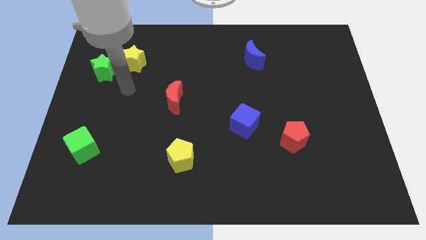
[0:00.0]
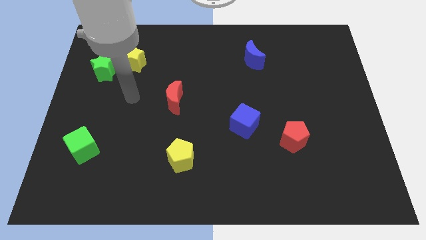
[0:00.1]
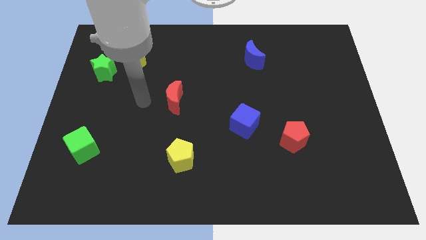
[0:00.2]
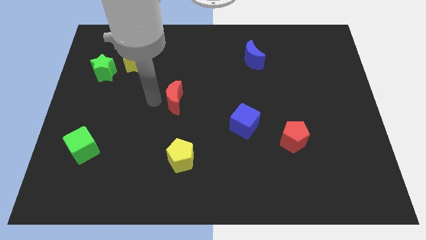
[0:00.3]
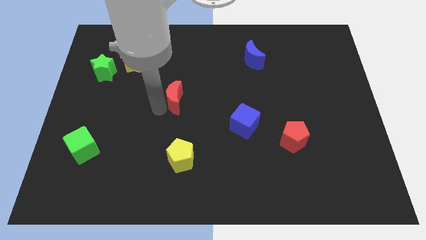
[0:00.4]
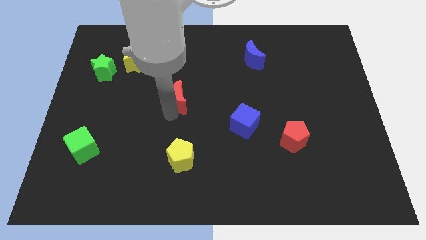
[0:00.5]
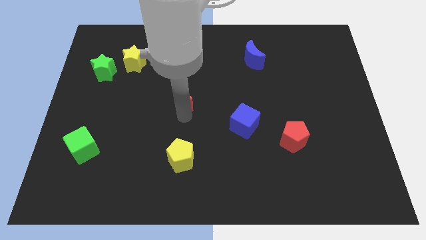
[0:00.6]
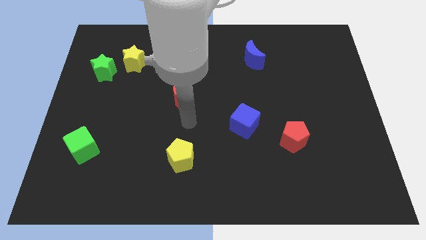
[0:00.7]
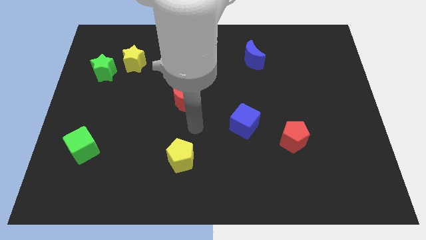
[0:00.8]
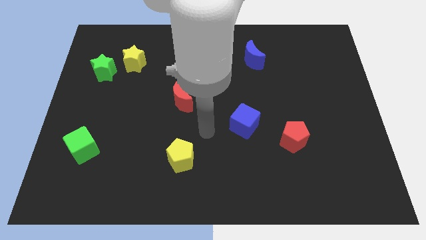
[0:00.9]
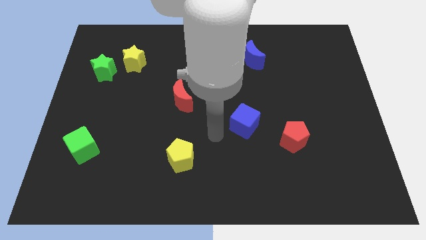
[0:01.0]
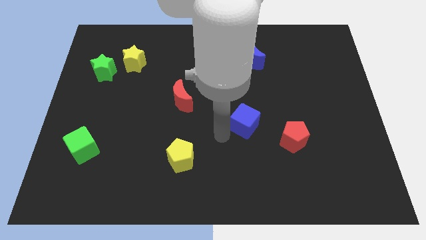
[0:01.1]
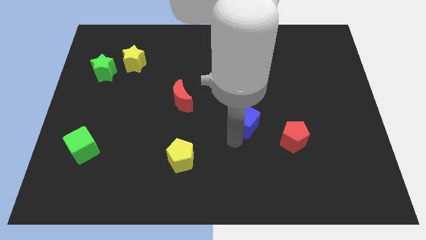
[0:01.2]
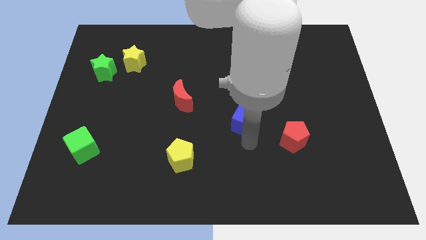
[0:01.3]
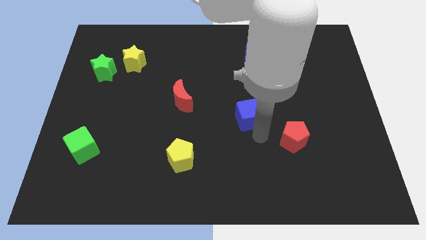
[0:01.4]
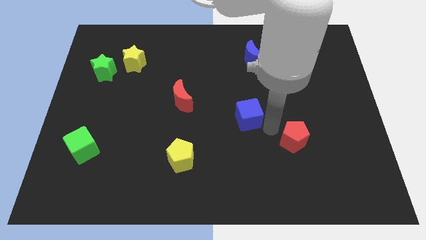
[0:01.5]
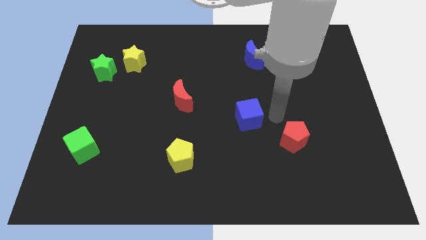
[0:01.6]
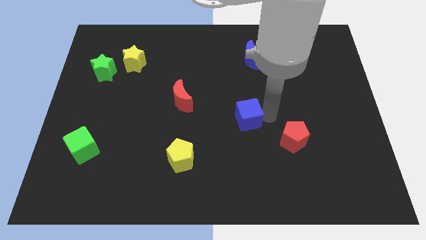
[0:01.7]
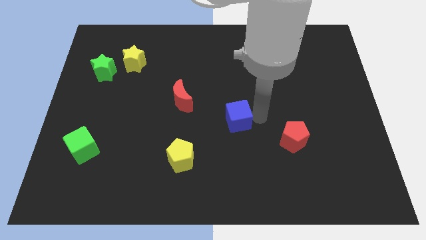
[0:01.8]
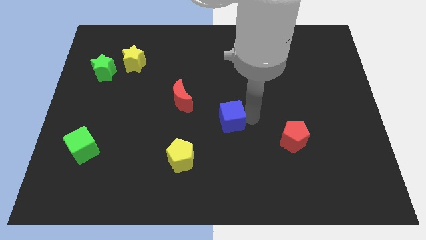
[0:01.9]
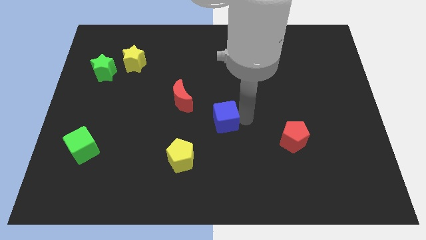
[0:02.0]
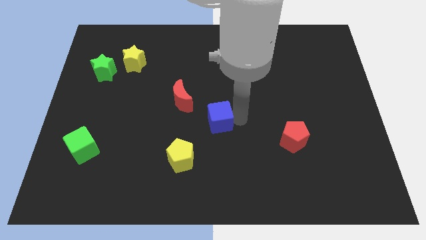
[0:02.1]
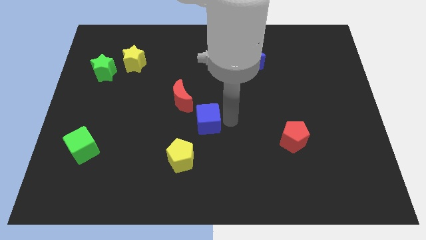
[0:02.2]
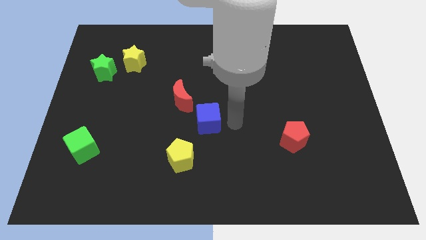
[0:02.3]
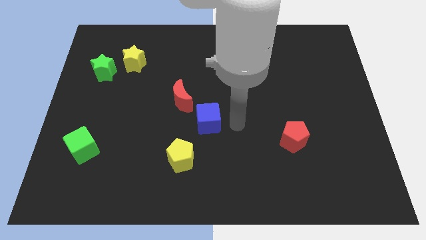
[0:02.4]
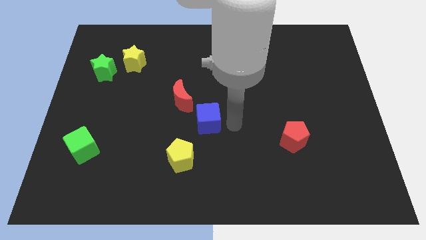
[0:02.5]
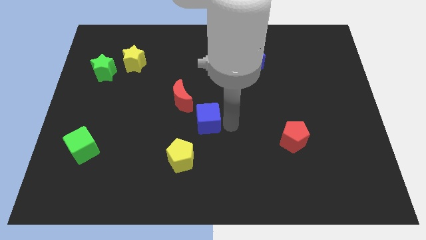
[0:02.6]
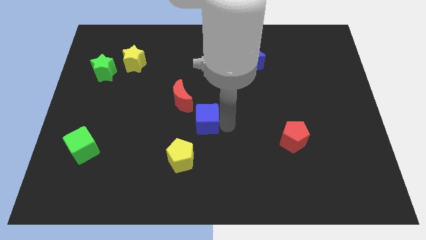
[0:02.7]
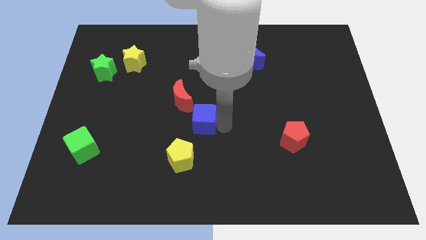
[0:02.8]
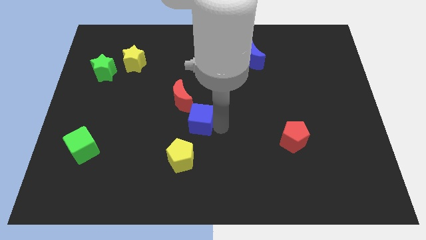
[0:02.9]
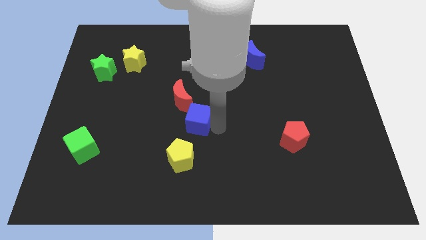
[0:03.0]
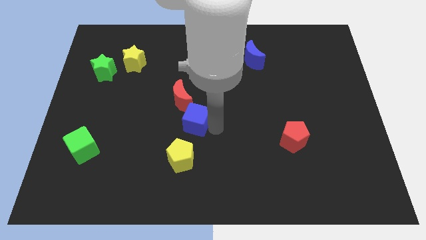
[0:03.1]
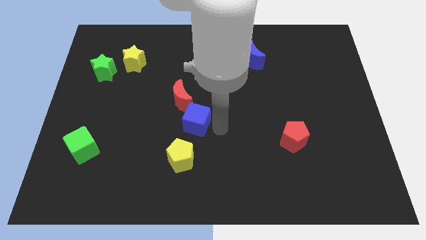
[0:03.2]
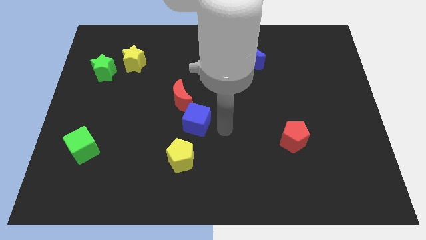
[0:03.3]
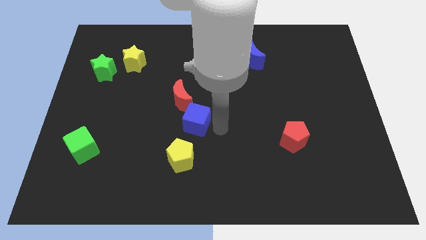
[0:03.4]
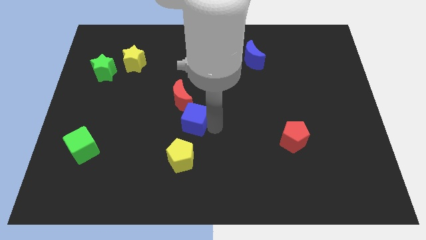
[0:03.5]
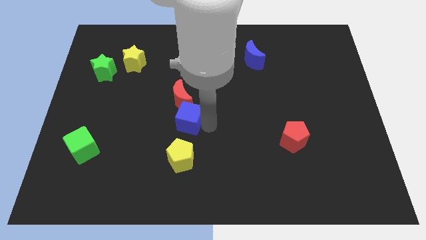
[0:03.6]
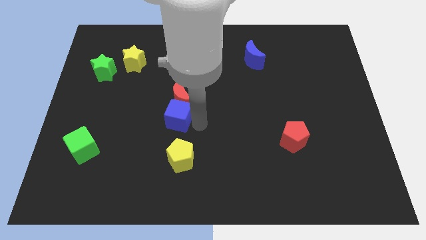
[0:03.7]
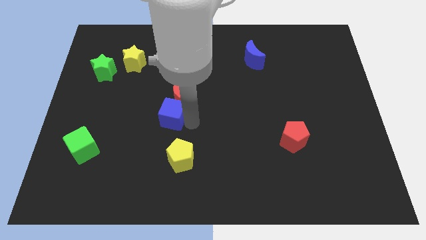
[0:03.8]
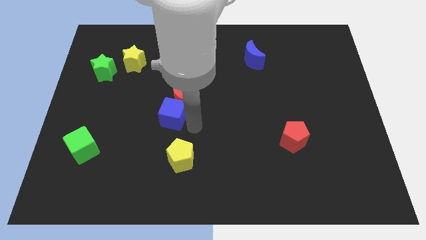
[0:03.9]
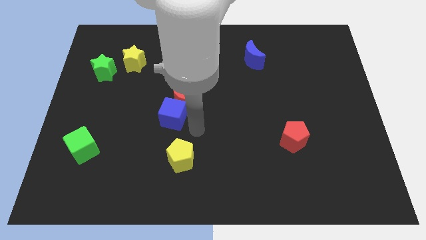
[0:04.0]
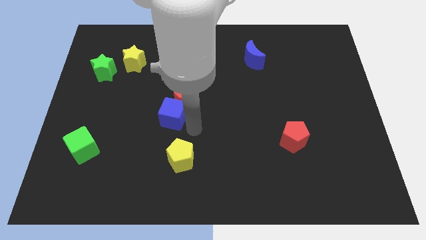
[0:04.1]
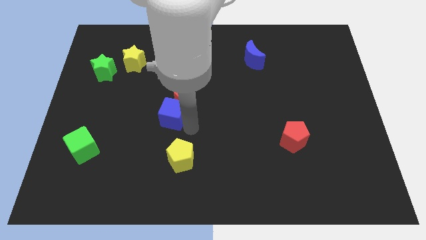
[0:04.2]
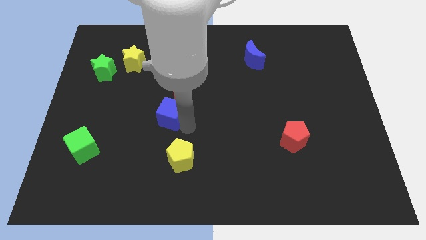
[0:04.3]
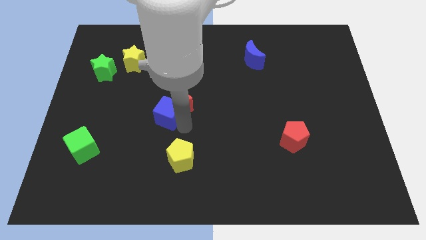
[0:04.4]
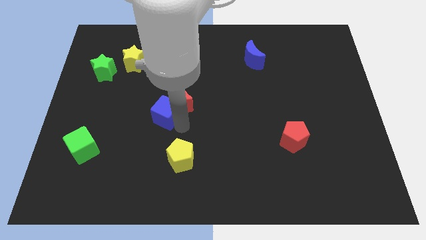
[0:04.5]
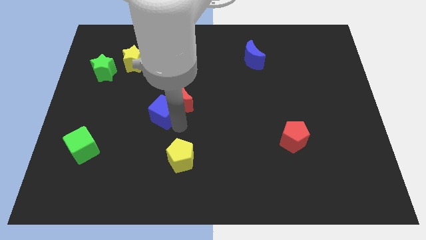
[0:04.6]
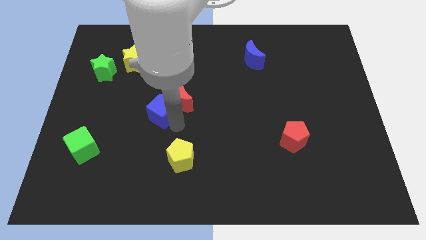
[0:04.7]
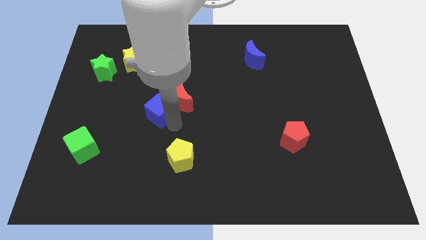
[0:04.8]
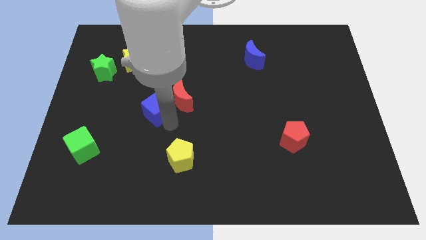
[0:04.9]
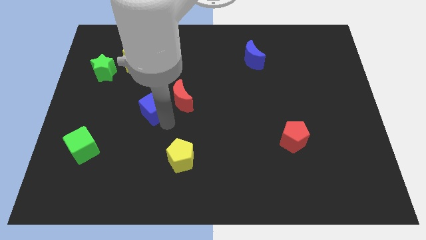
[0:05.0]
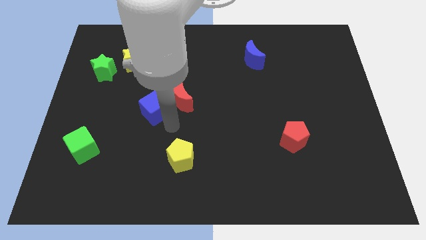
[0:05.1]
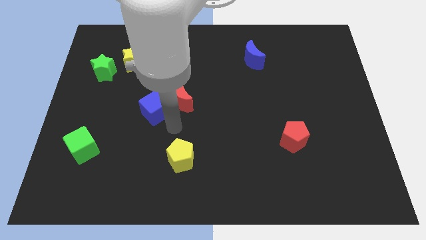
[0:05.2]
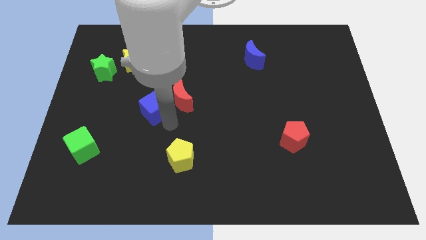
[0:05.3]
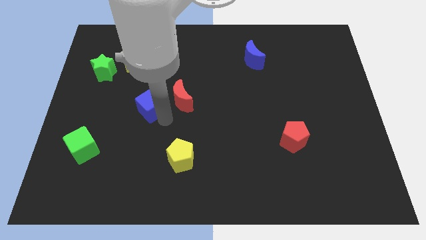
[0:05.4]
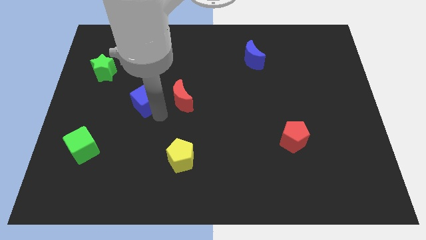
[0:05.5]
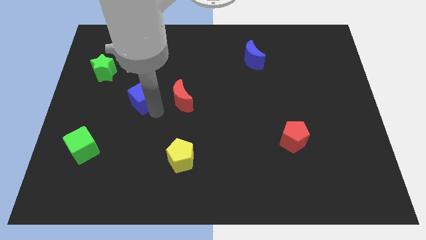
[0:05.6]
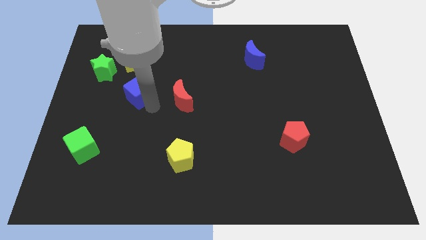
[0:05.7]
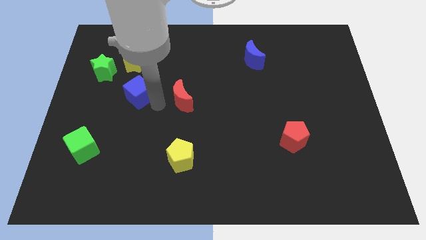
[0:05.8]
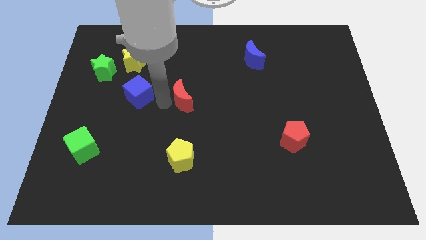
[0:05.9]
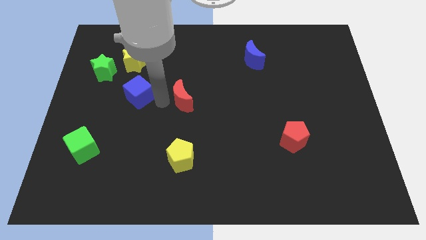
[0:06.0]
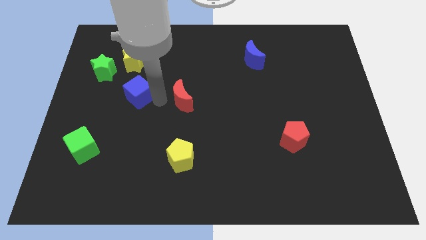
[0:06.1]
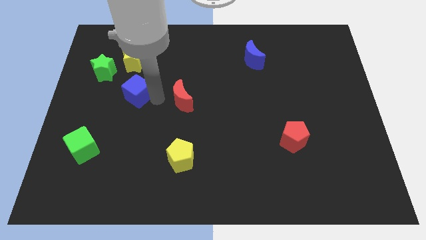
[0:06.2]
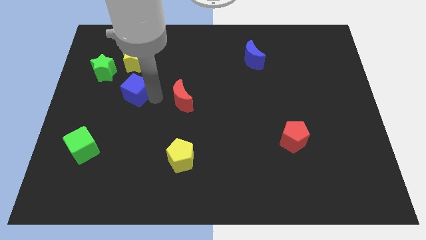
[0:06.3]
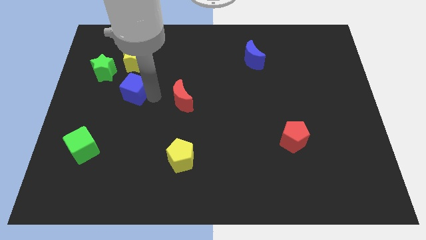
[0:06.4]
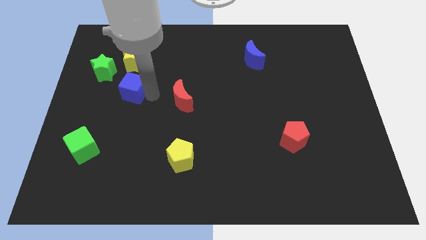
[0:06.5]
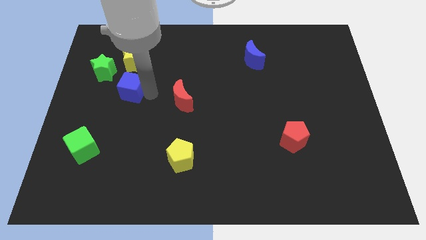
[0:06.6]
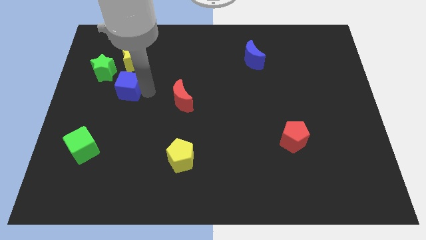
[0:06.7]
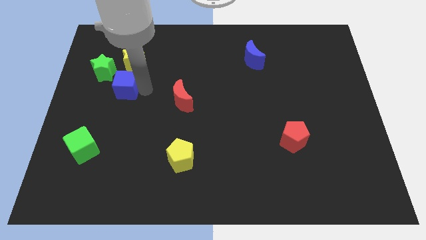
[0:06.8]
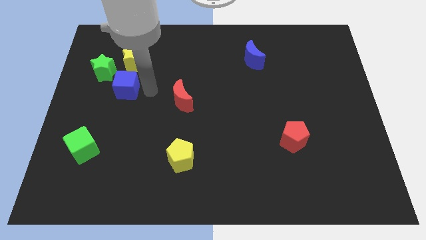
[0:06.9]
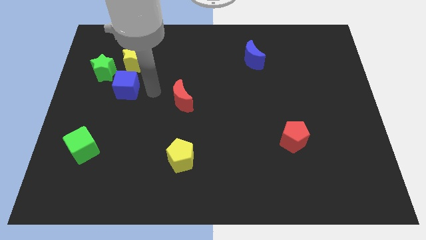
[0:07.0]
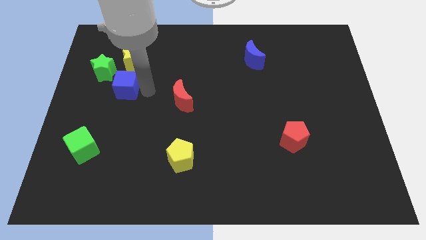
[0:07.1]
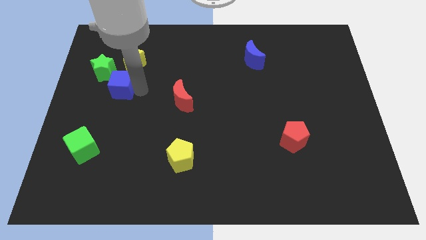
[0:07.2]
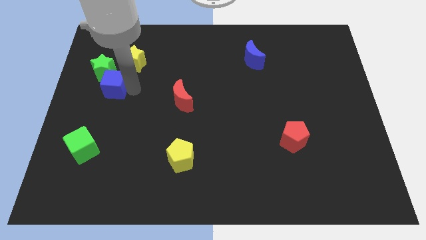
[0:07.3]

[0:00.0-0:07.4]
slide the blue cube to the bottom left side of the yellow star
